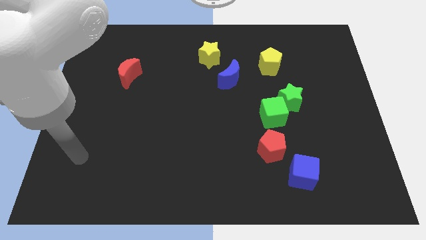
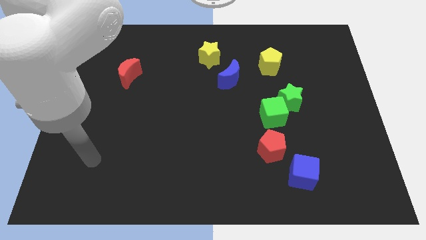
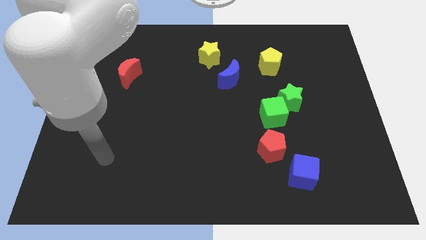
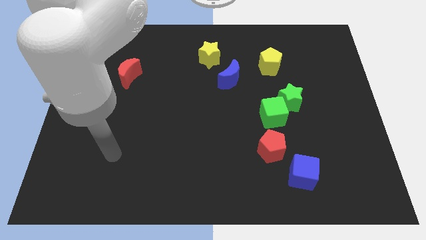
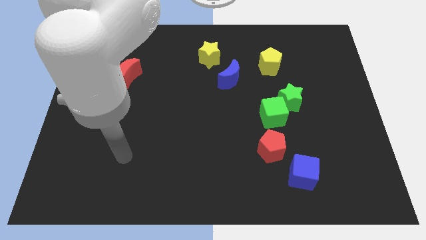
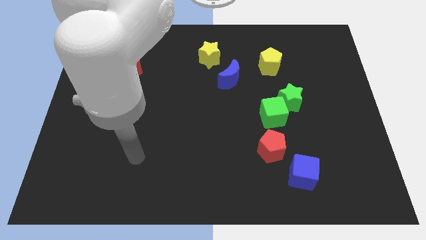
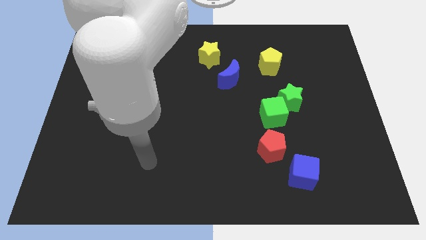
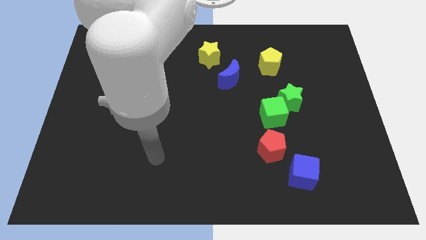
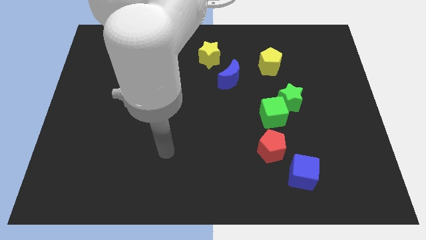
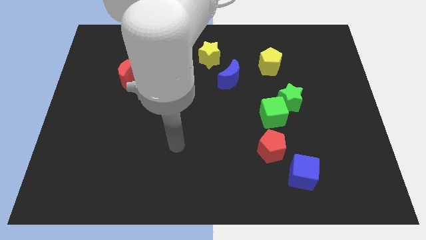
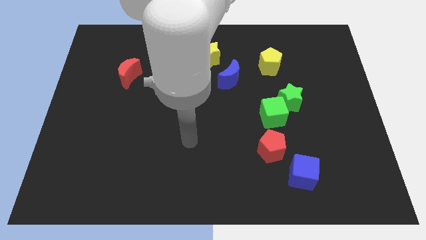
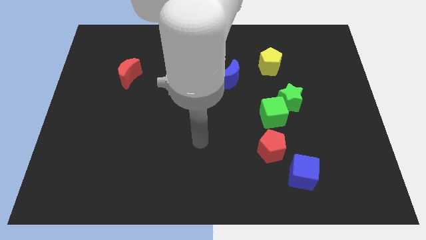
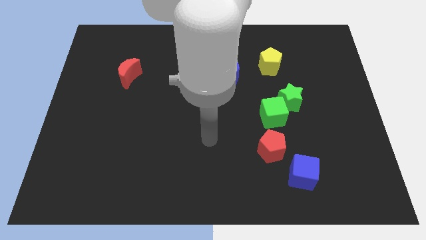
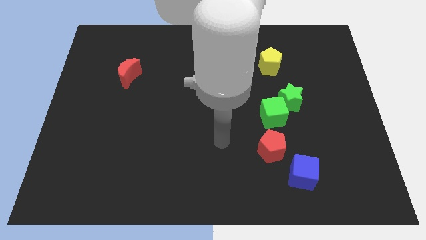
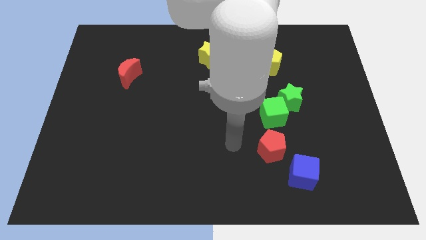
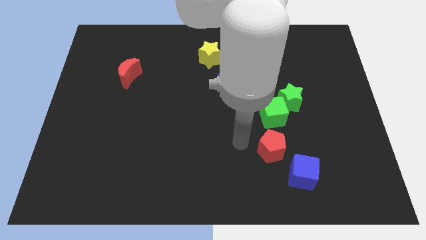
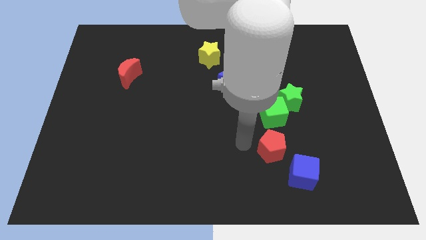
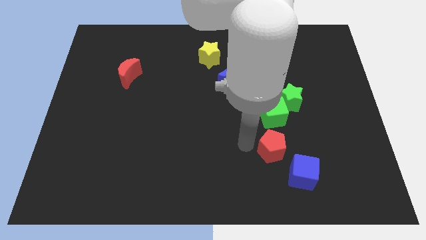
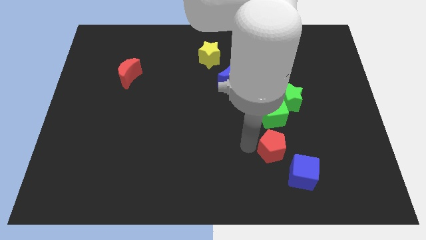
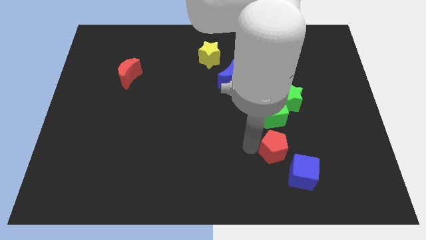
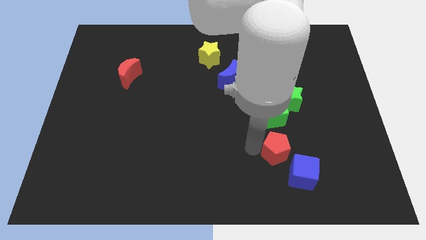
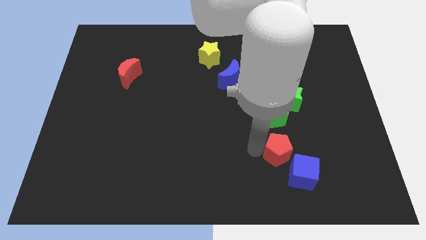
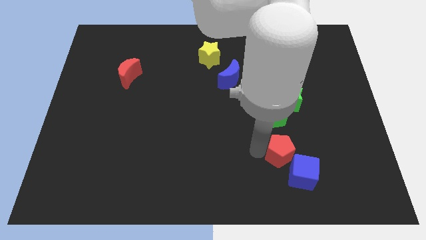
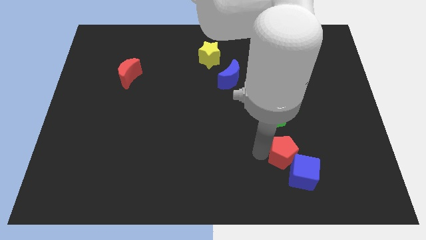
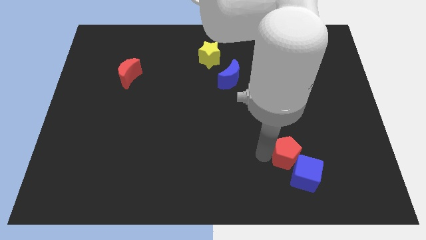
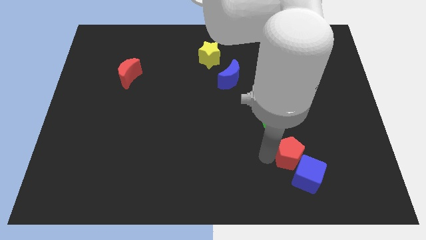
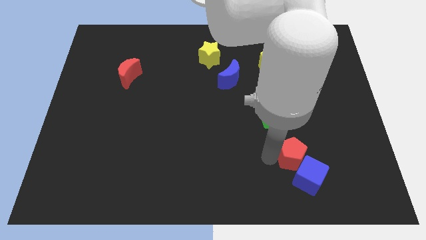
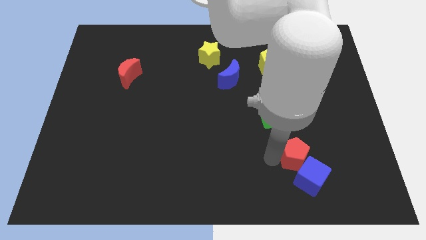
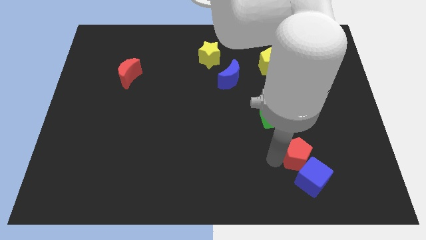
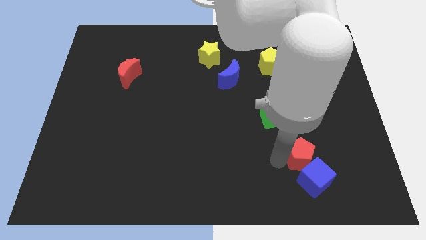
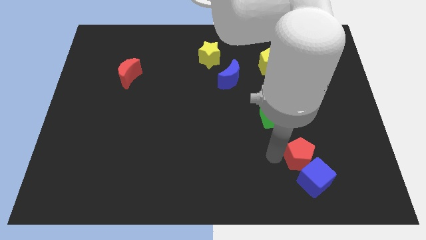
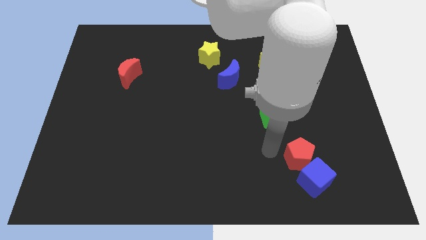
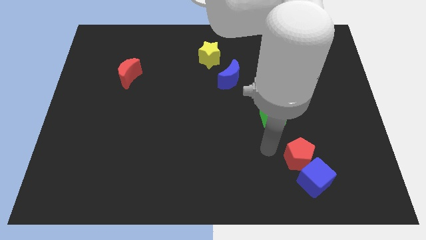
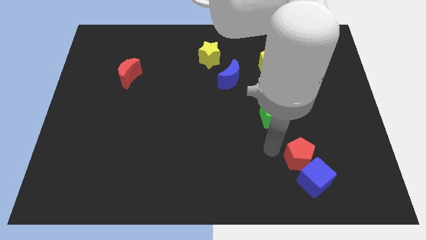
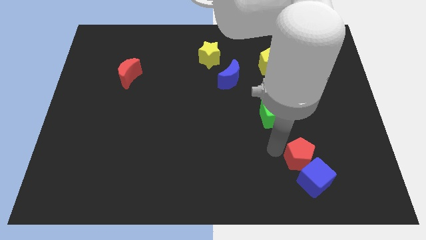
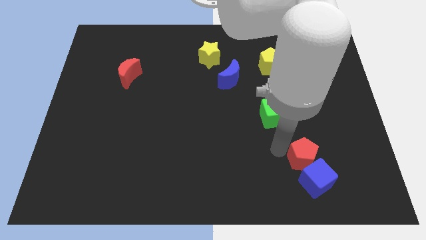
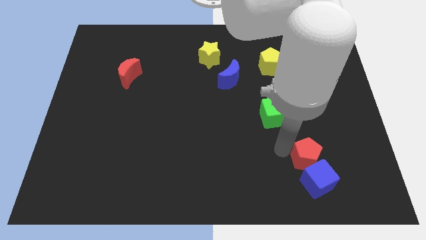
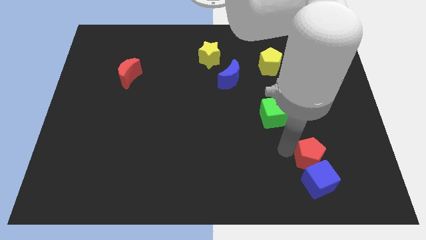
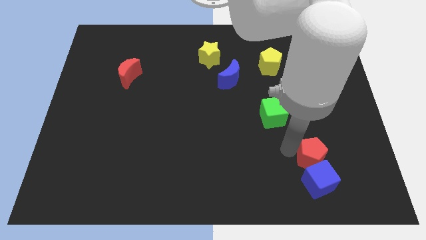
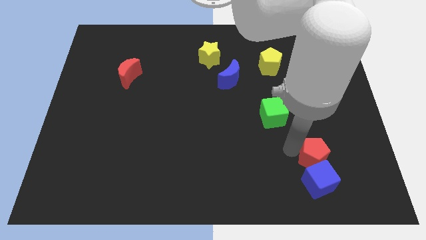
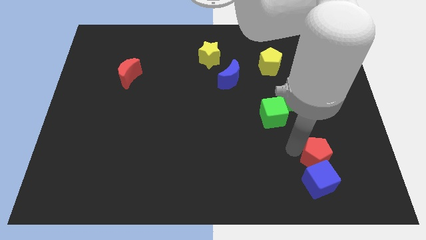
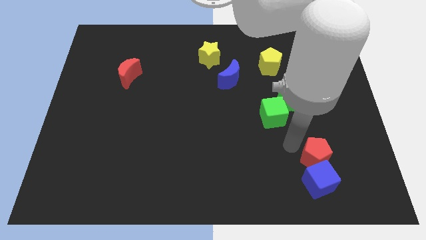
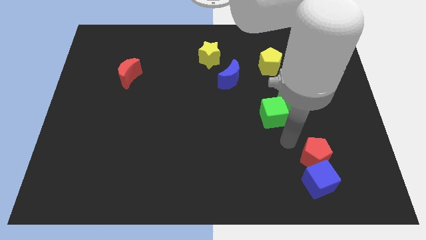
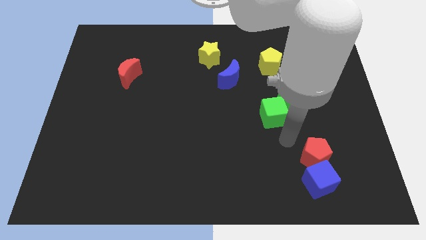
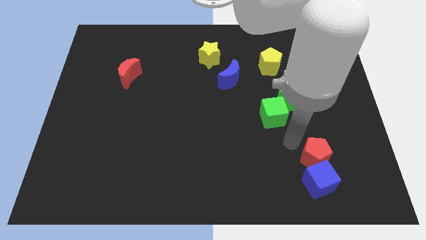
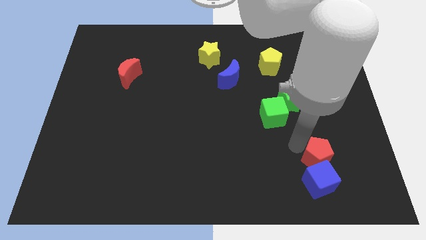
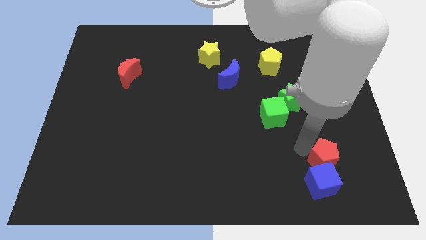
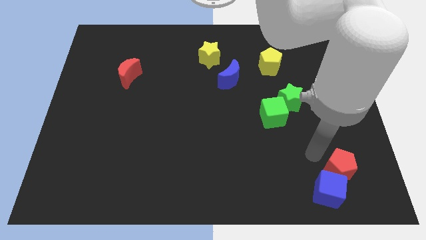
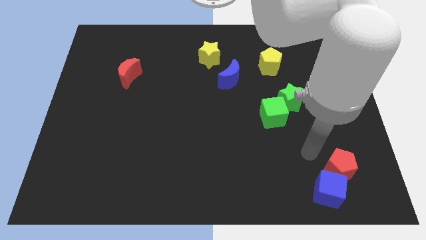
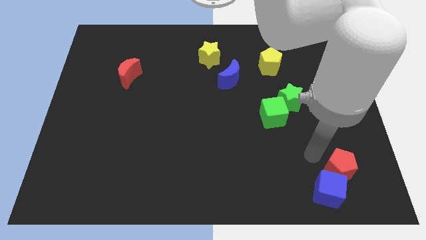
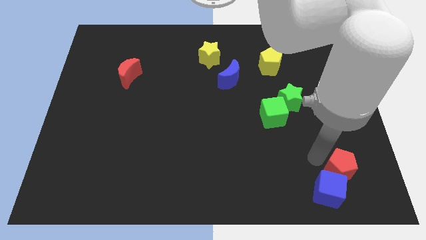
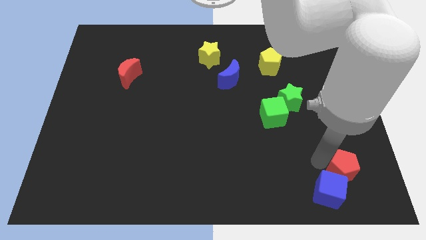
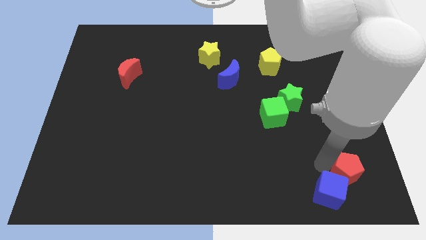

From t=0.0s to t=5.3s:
push the red pentagon to the right of the blue cube

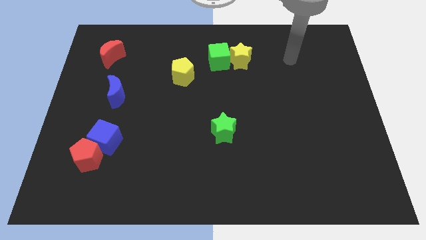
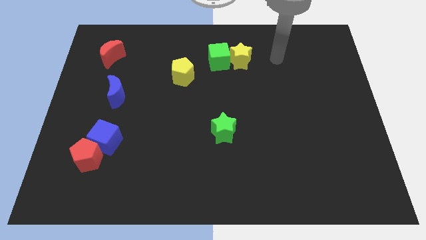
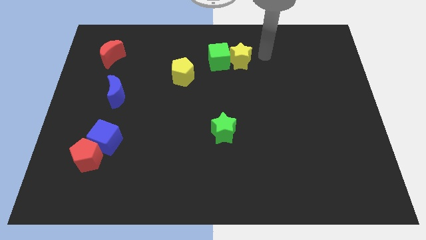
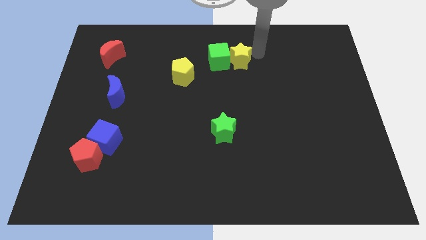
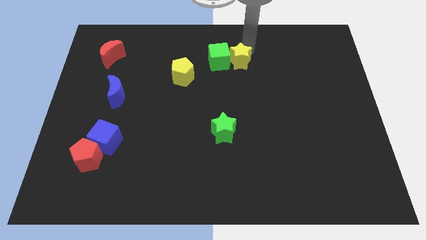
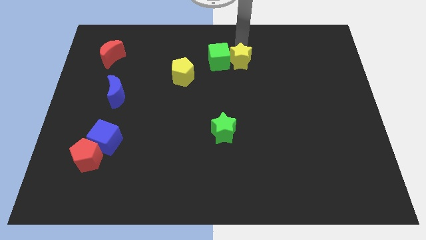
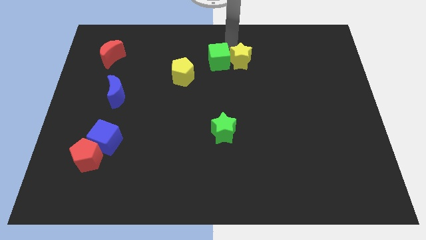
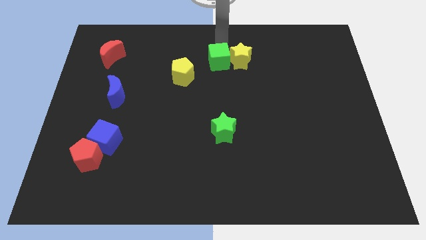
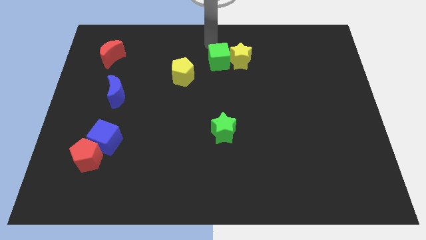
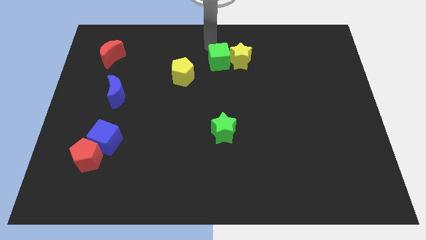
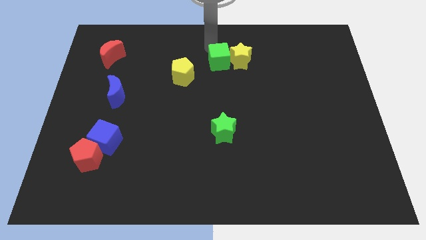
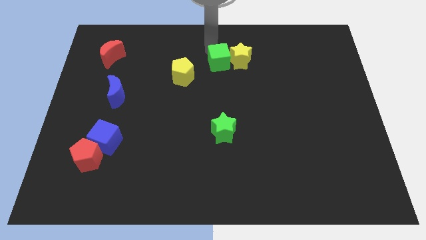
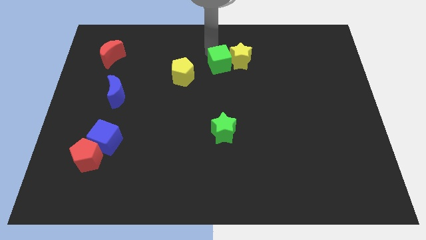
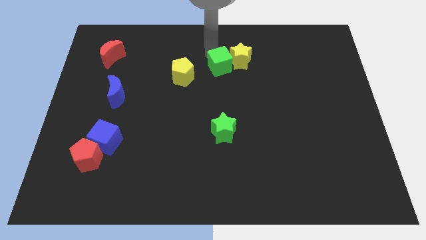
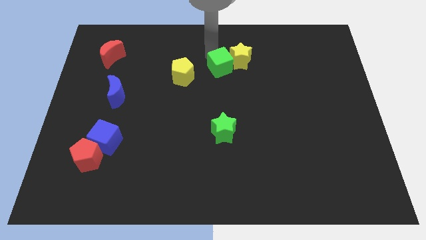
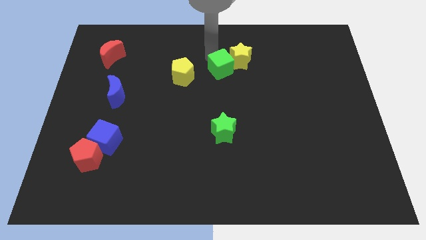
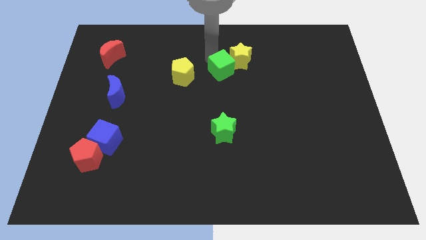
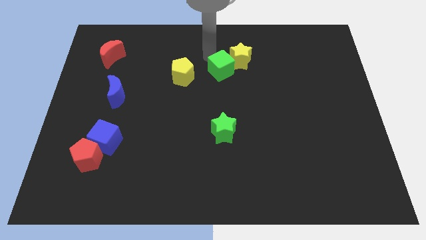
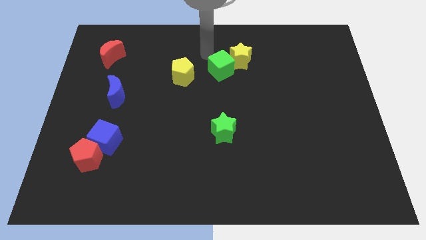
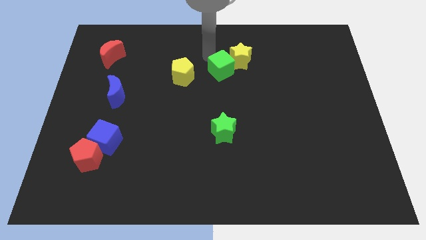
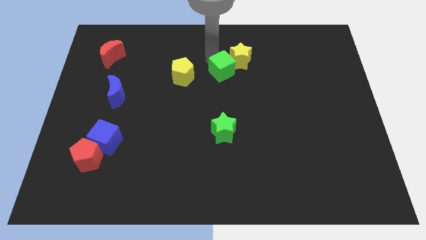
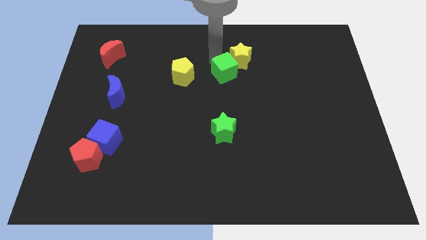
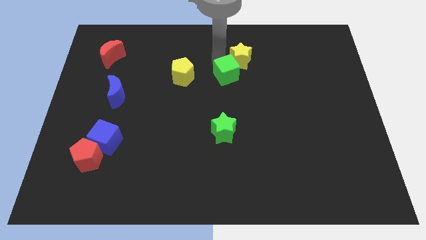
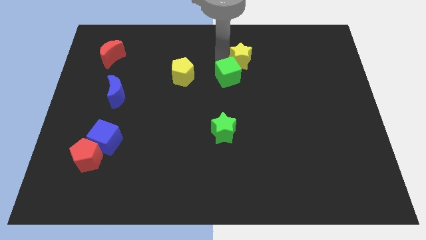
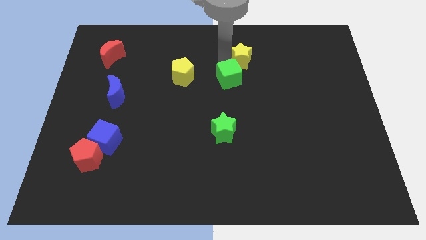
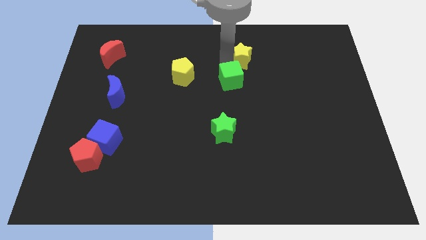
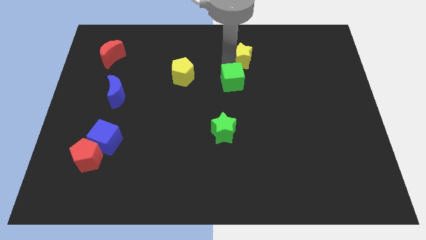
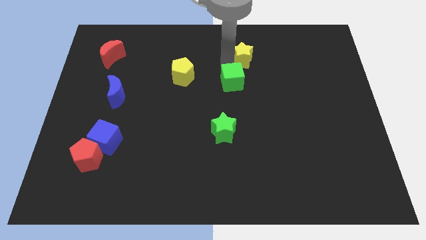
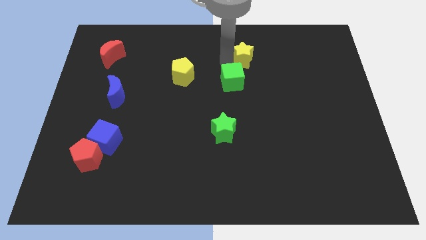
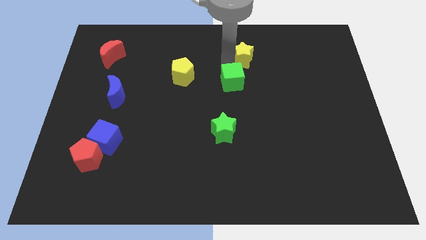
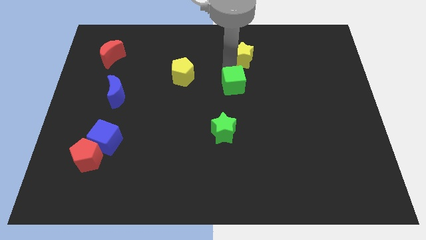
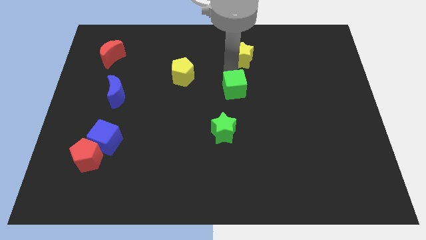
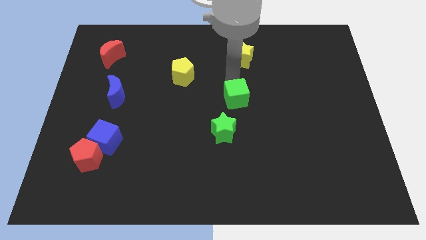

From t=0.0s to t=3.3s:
push the green cube diagonally up and to the right of the green star
